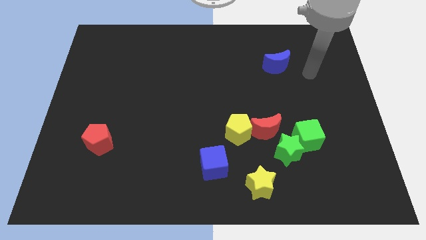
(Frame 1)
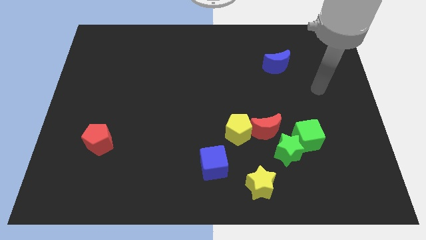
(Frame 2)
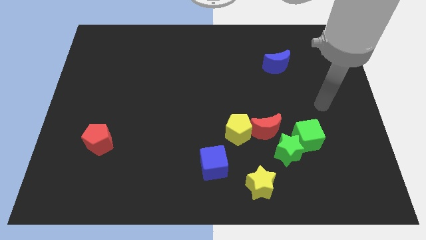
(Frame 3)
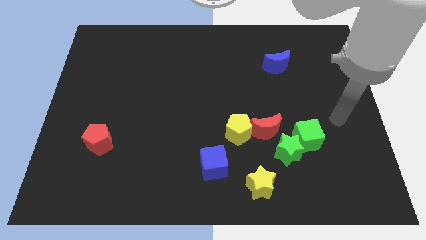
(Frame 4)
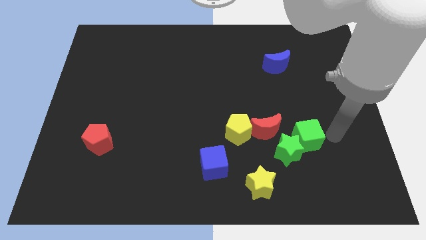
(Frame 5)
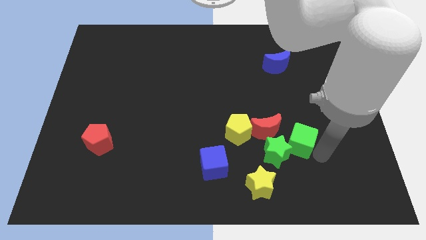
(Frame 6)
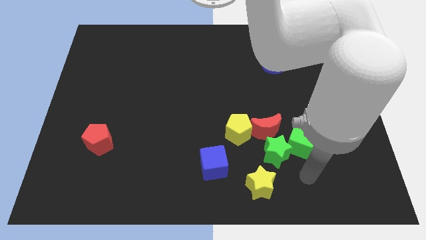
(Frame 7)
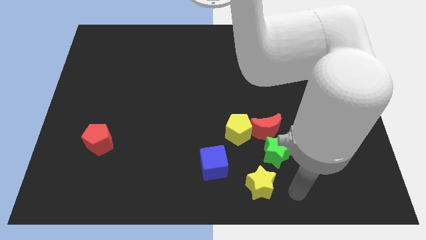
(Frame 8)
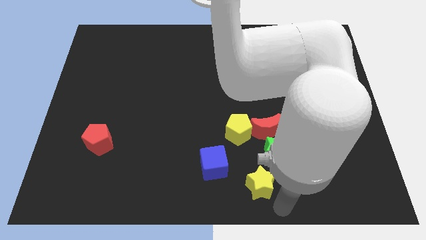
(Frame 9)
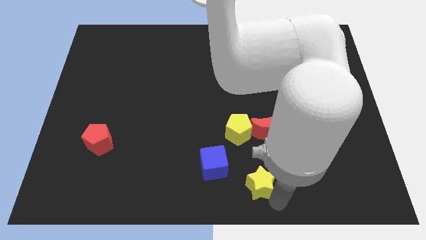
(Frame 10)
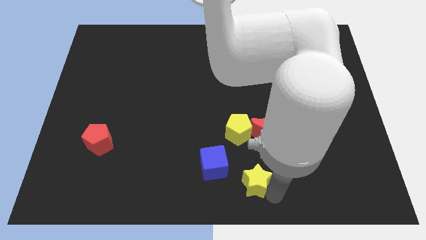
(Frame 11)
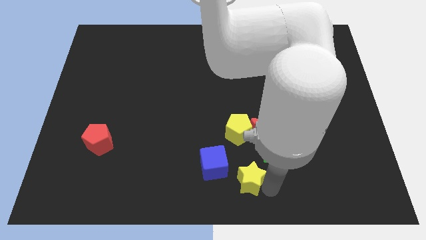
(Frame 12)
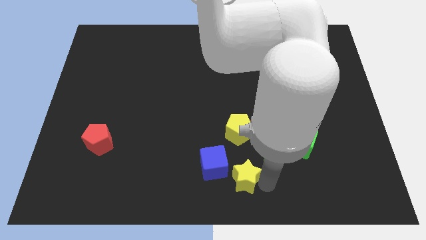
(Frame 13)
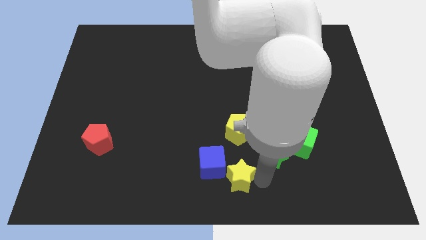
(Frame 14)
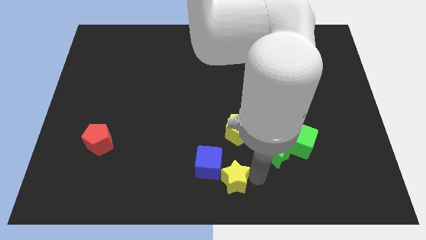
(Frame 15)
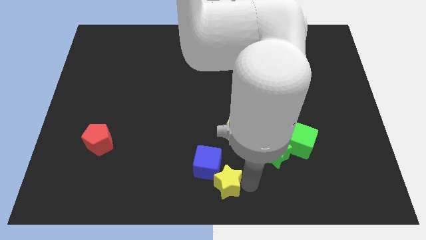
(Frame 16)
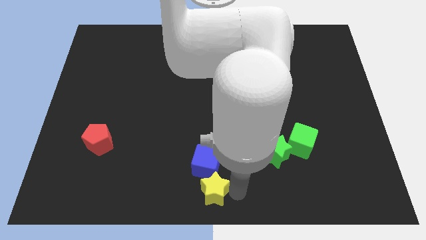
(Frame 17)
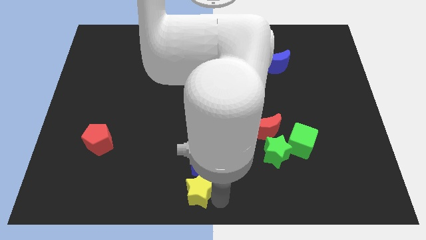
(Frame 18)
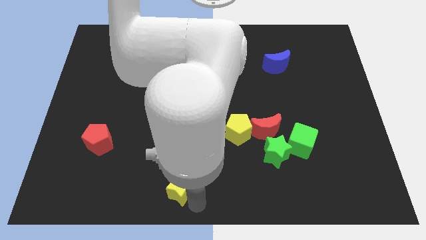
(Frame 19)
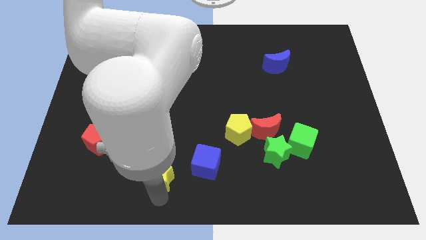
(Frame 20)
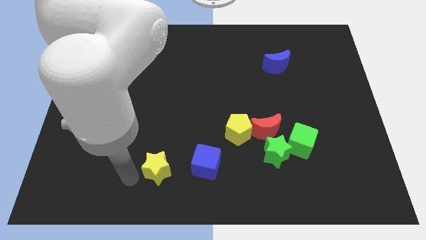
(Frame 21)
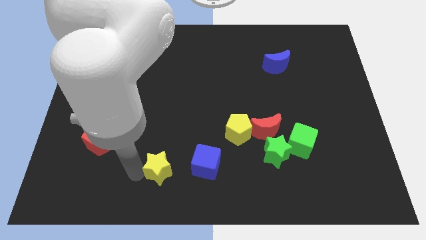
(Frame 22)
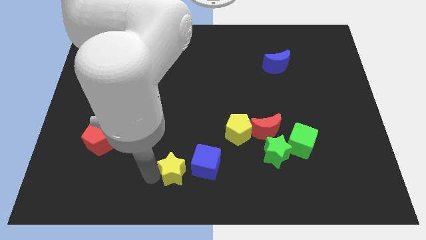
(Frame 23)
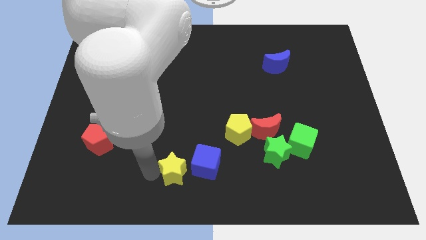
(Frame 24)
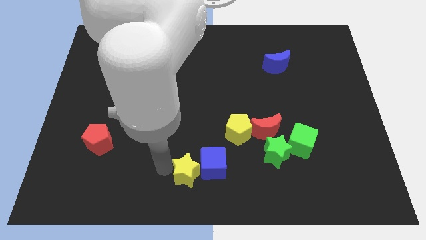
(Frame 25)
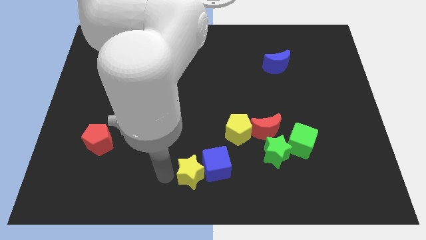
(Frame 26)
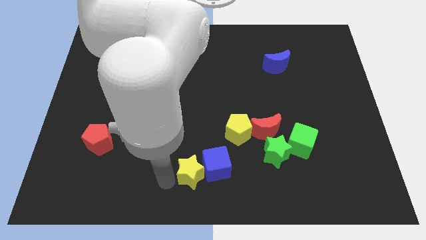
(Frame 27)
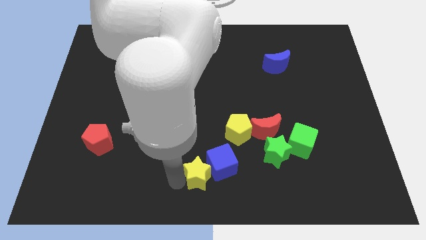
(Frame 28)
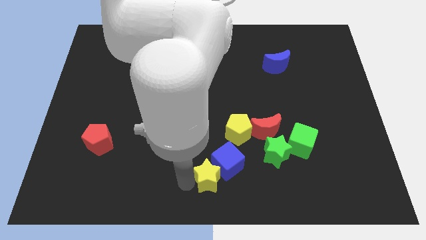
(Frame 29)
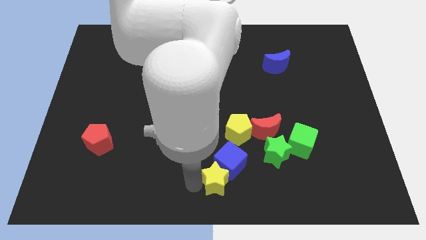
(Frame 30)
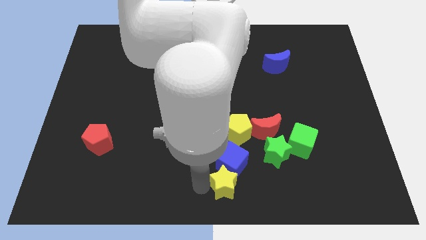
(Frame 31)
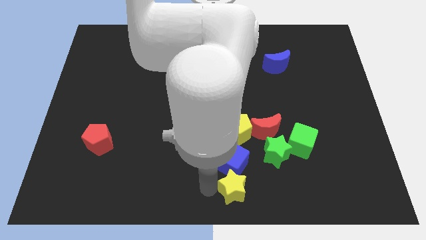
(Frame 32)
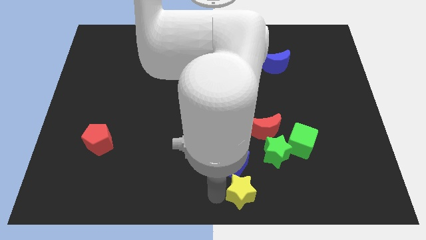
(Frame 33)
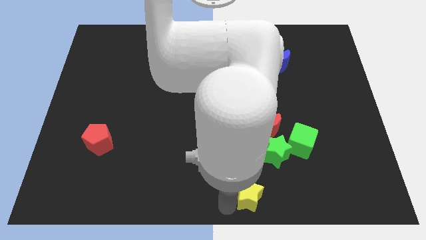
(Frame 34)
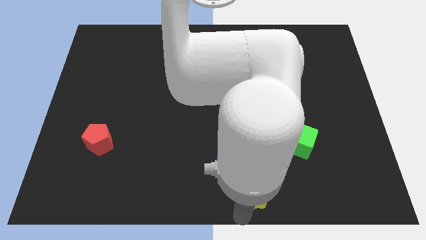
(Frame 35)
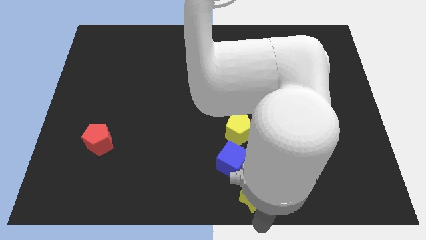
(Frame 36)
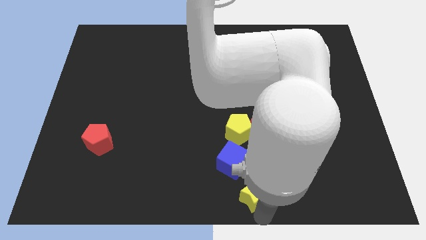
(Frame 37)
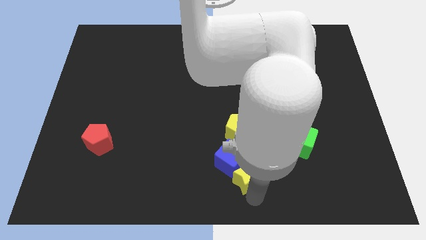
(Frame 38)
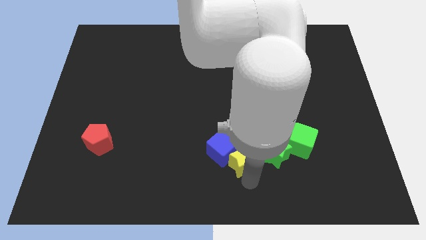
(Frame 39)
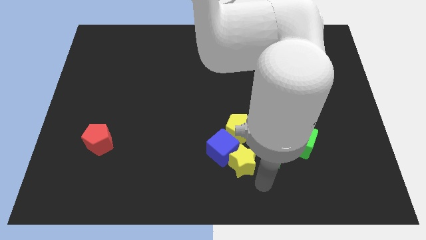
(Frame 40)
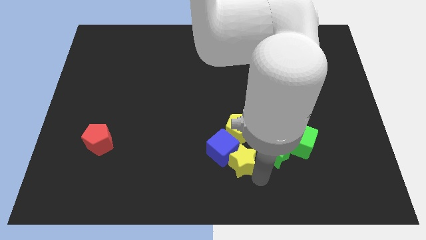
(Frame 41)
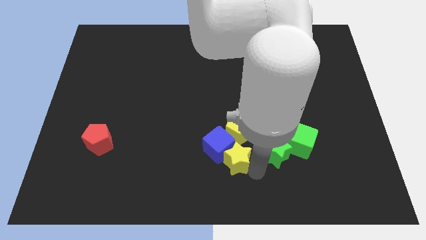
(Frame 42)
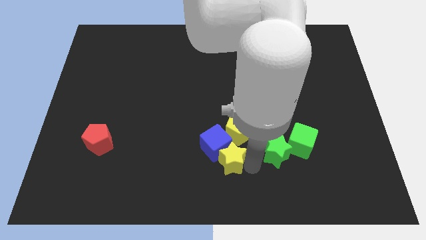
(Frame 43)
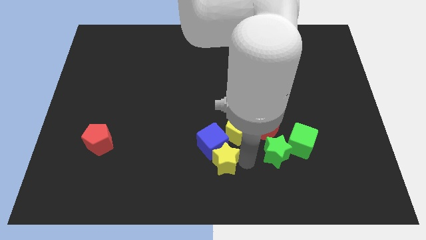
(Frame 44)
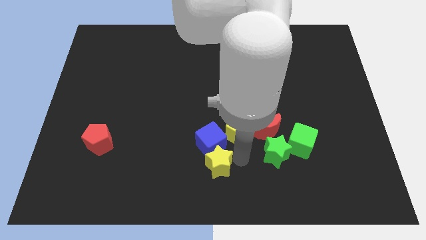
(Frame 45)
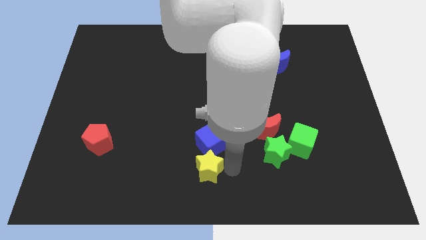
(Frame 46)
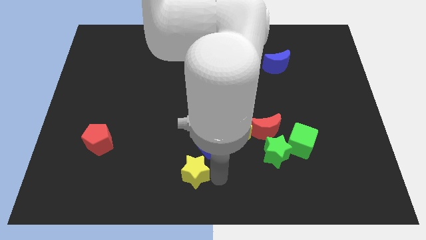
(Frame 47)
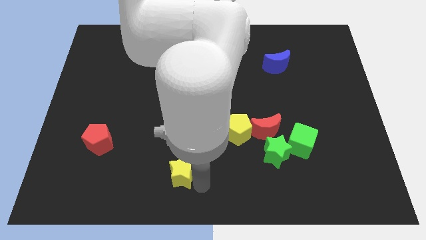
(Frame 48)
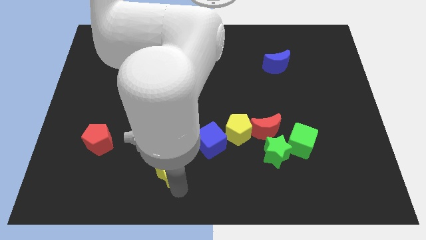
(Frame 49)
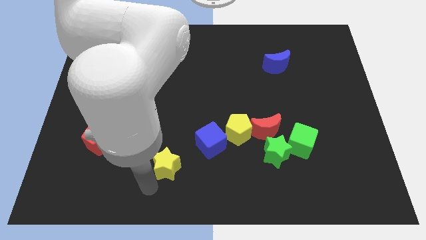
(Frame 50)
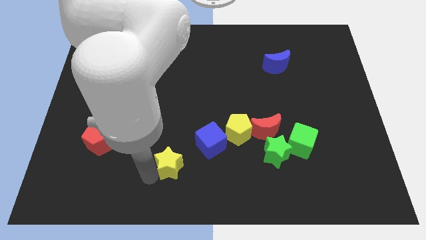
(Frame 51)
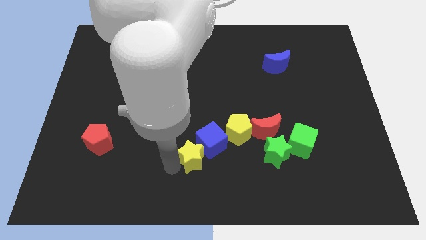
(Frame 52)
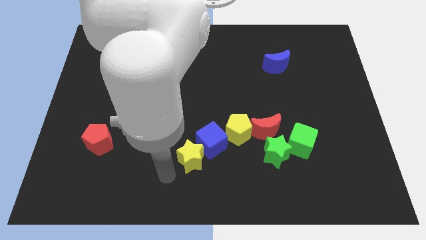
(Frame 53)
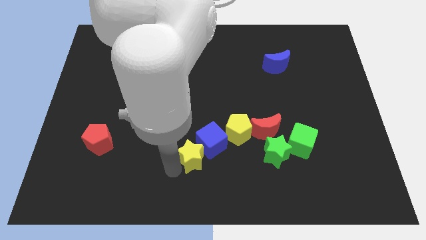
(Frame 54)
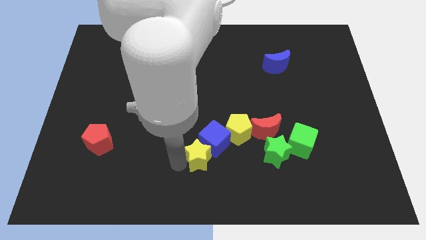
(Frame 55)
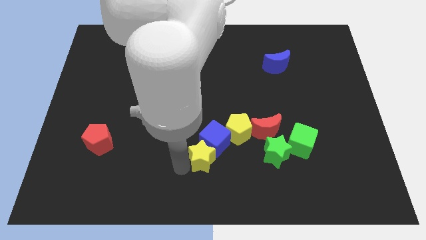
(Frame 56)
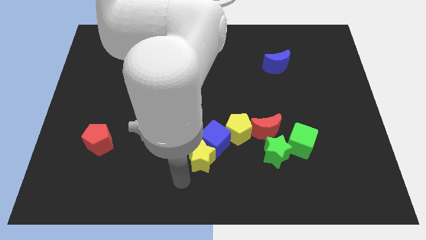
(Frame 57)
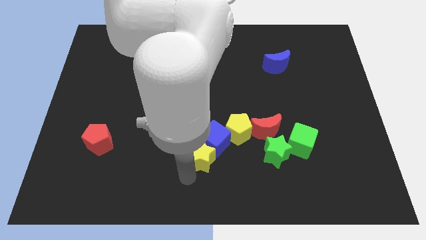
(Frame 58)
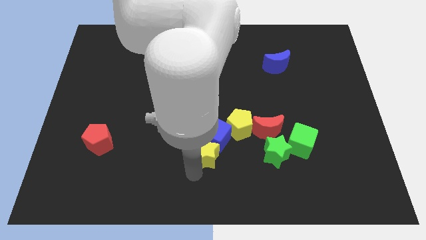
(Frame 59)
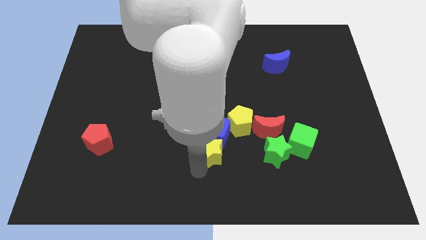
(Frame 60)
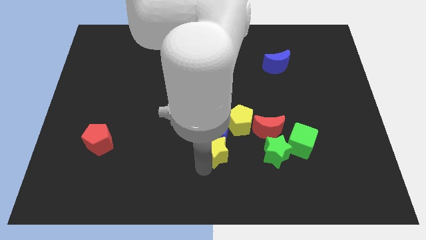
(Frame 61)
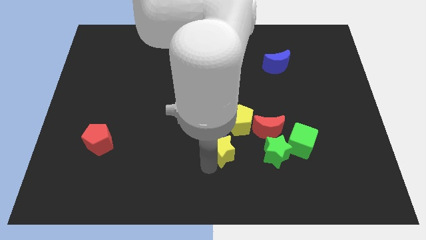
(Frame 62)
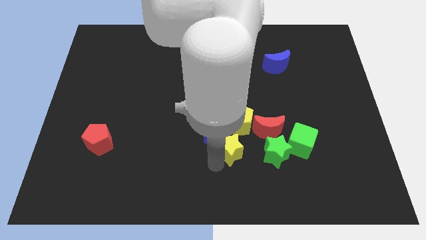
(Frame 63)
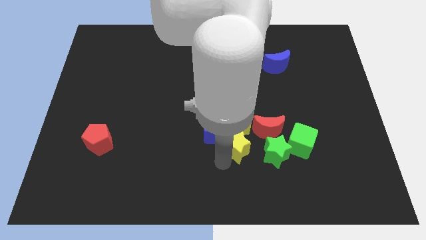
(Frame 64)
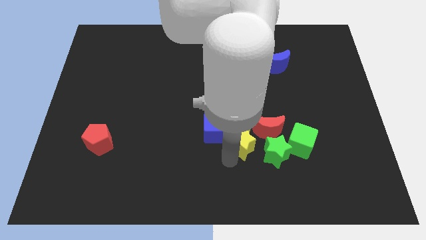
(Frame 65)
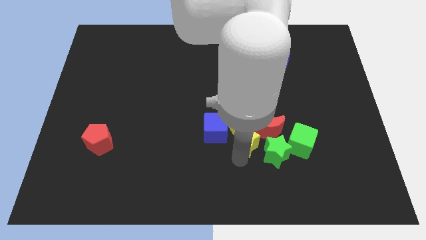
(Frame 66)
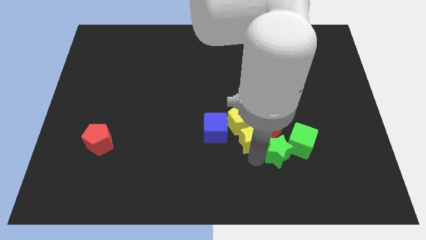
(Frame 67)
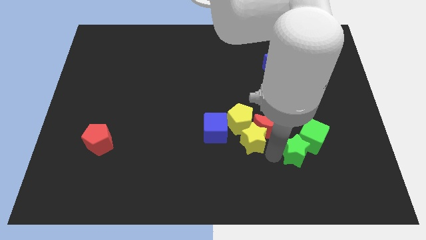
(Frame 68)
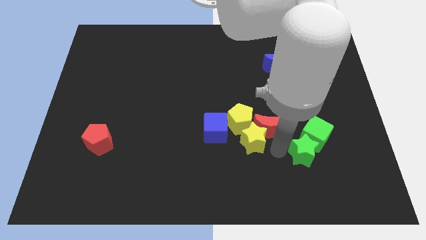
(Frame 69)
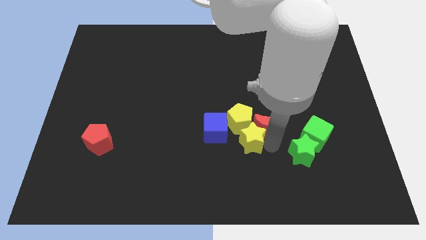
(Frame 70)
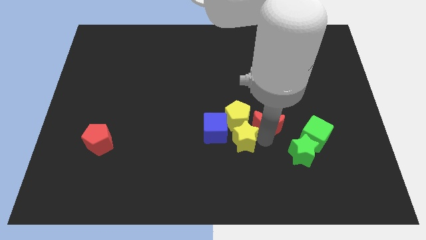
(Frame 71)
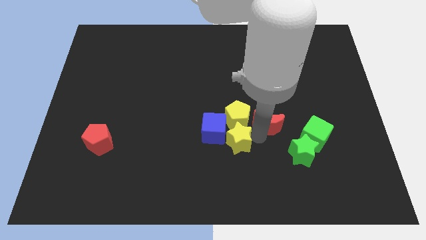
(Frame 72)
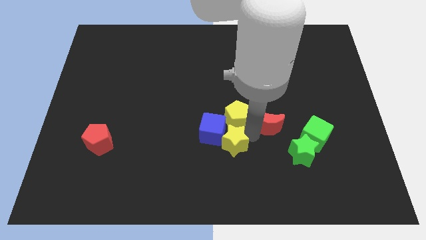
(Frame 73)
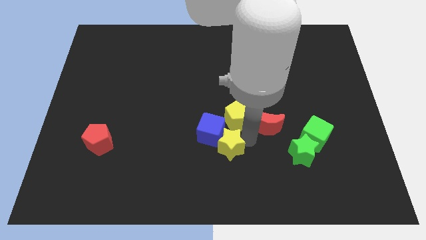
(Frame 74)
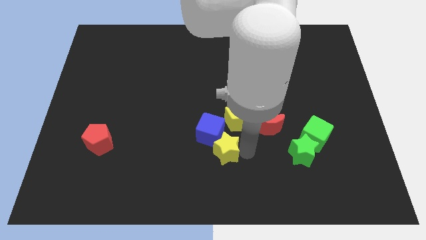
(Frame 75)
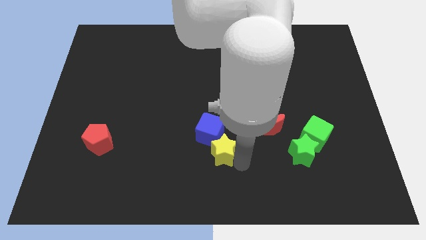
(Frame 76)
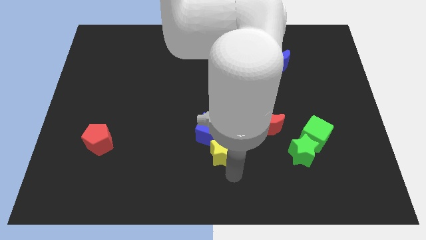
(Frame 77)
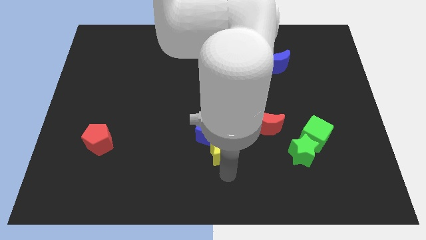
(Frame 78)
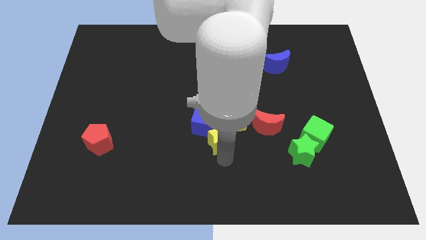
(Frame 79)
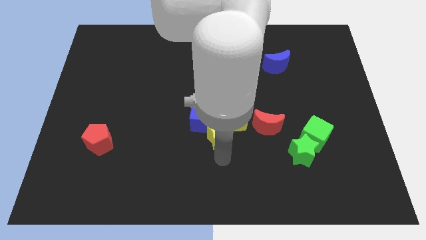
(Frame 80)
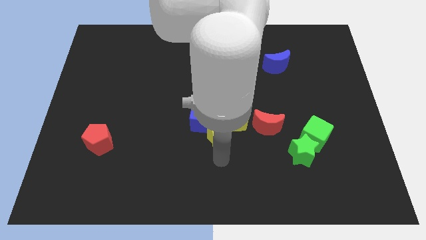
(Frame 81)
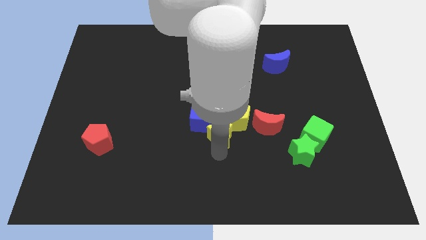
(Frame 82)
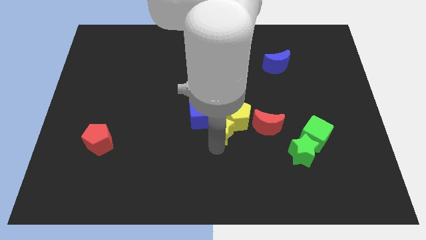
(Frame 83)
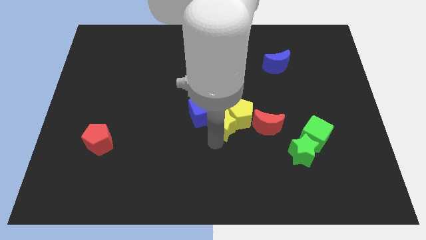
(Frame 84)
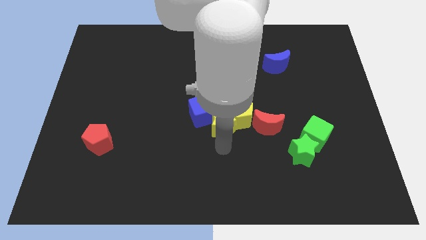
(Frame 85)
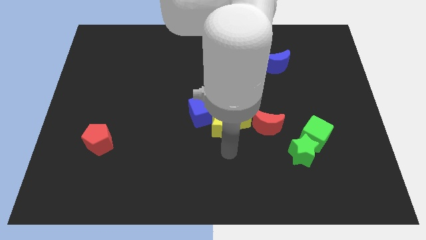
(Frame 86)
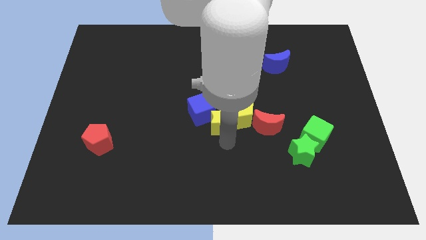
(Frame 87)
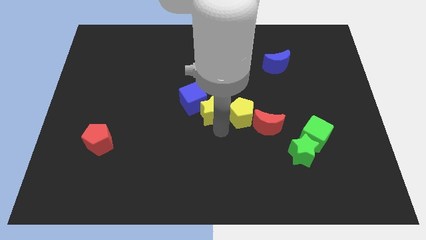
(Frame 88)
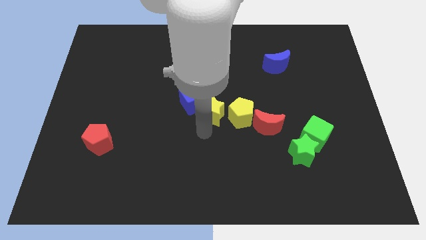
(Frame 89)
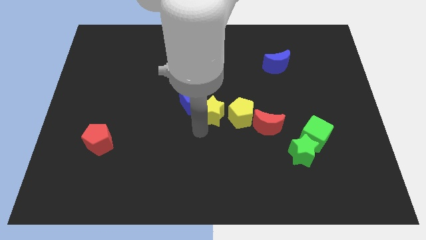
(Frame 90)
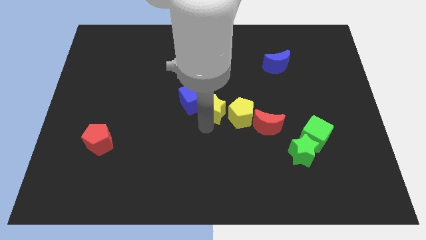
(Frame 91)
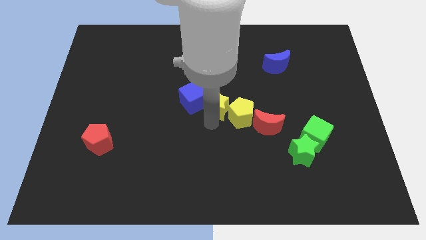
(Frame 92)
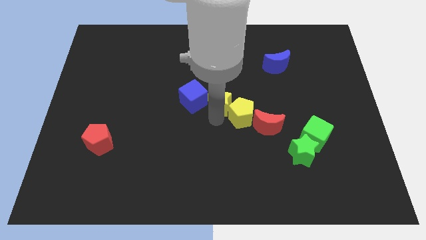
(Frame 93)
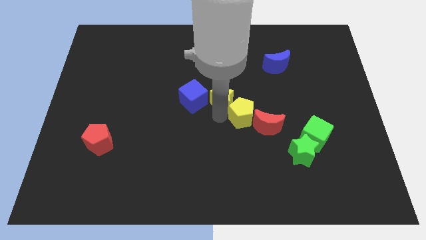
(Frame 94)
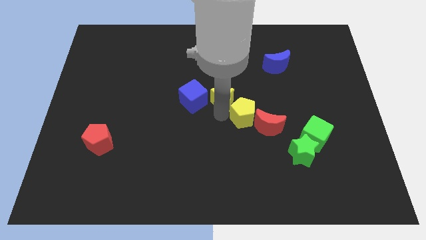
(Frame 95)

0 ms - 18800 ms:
move the yellow star upwards
